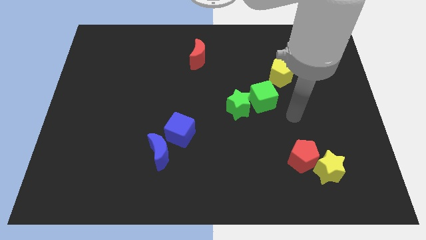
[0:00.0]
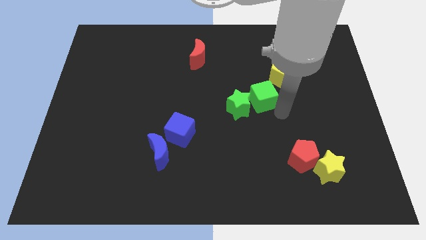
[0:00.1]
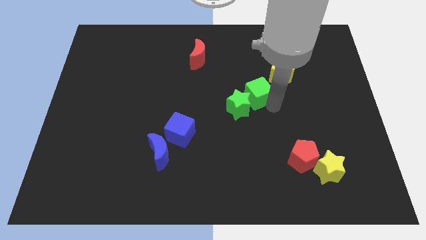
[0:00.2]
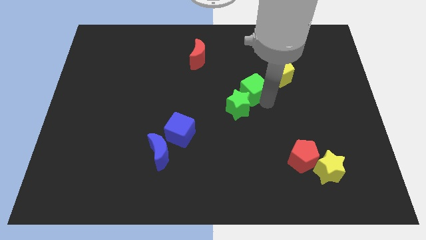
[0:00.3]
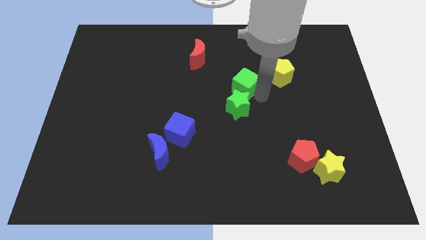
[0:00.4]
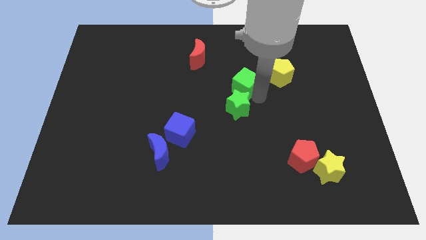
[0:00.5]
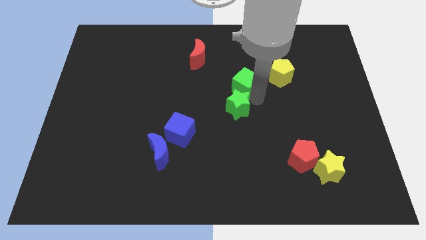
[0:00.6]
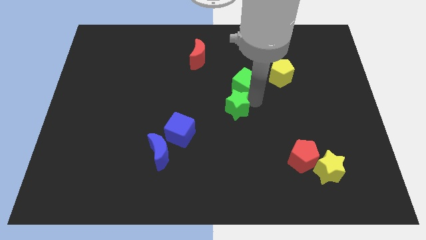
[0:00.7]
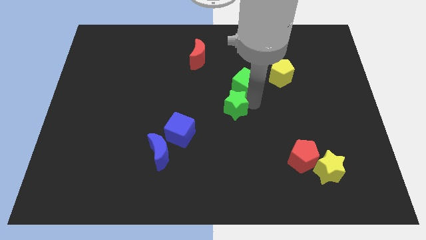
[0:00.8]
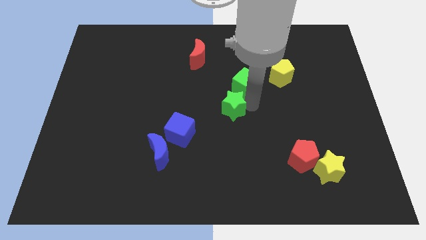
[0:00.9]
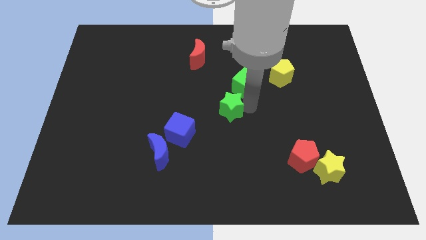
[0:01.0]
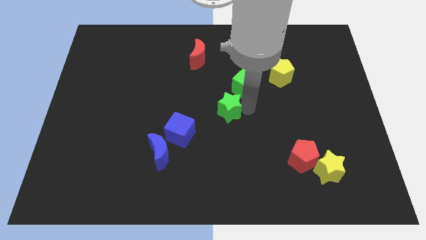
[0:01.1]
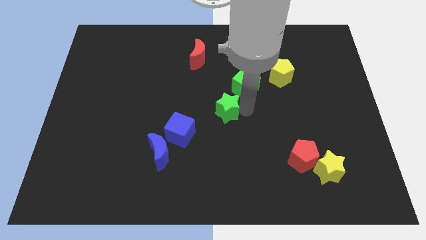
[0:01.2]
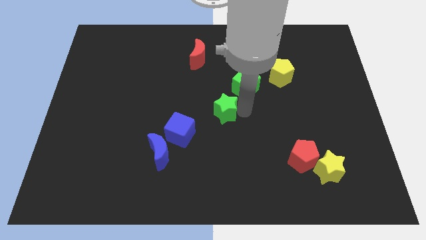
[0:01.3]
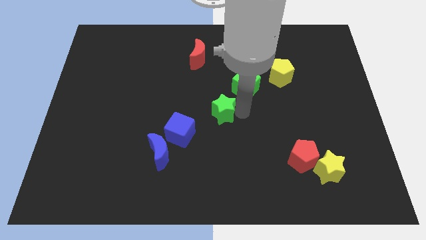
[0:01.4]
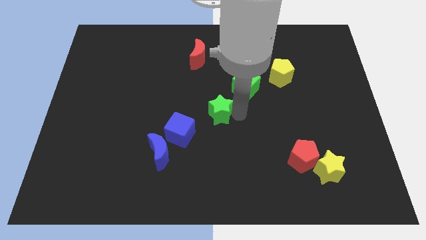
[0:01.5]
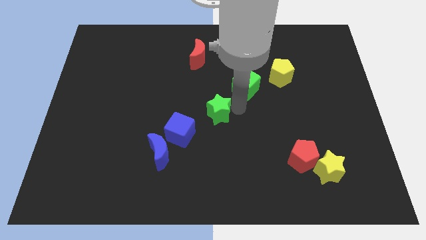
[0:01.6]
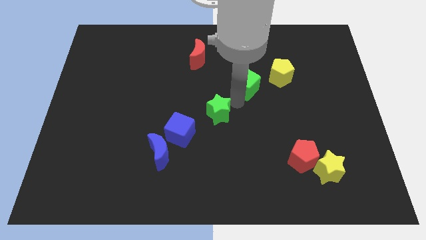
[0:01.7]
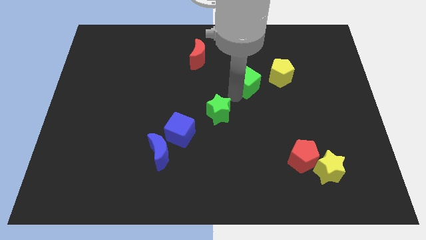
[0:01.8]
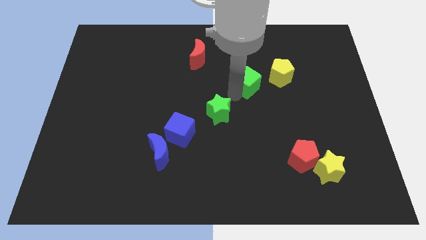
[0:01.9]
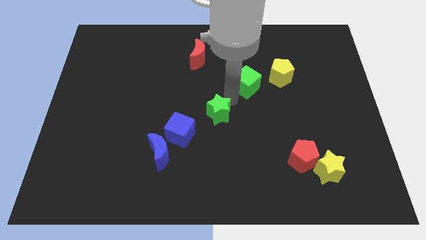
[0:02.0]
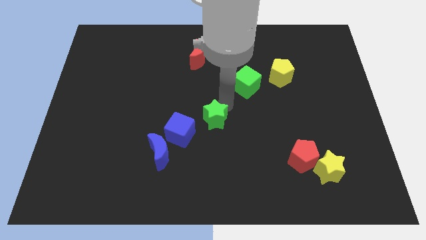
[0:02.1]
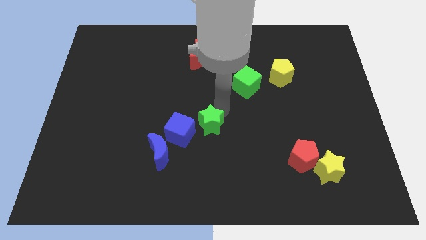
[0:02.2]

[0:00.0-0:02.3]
slide the green star diagonally downwards and to the left a little

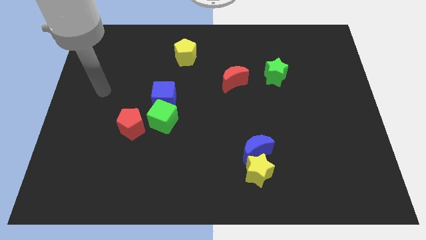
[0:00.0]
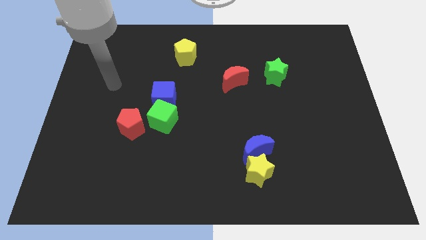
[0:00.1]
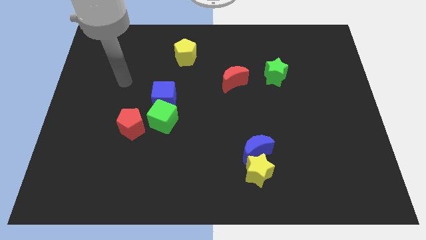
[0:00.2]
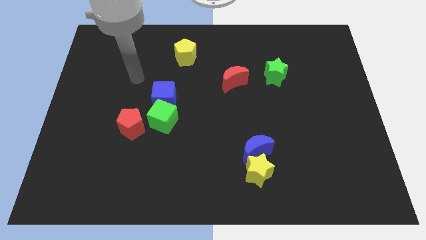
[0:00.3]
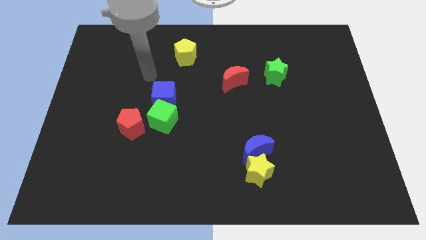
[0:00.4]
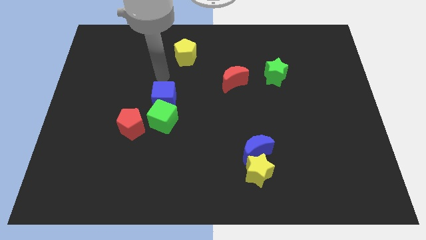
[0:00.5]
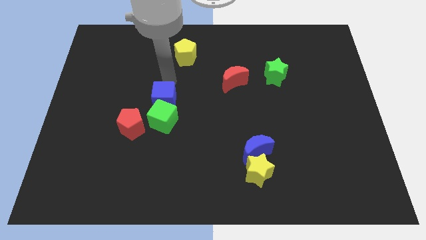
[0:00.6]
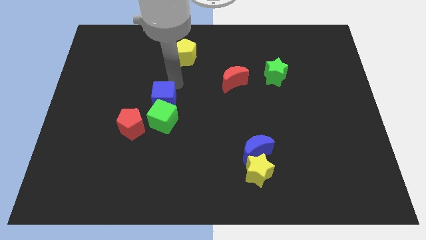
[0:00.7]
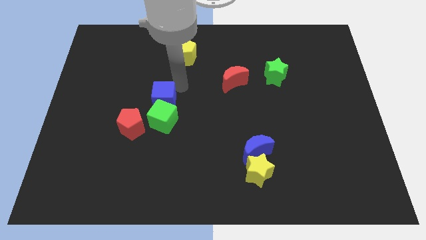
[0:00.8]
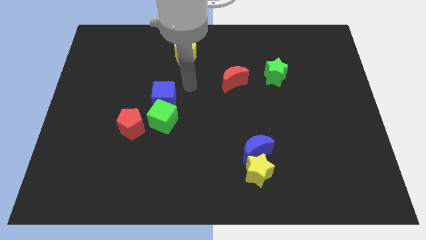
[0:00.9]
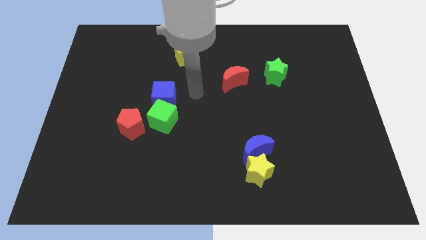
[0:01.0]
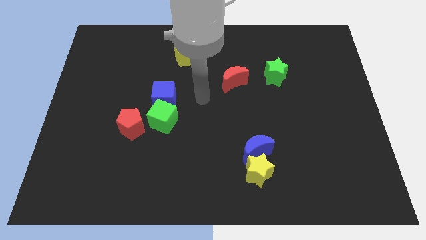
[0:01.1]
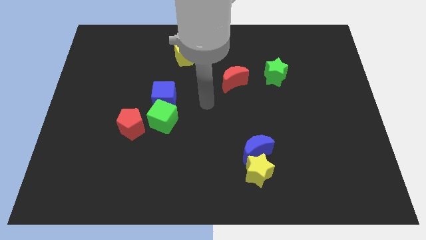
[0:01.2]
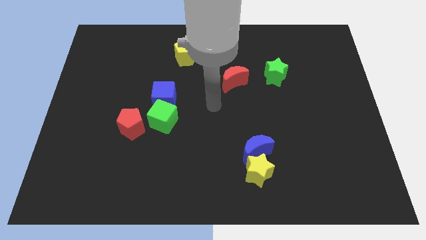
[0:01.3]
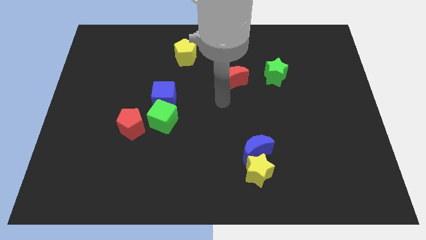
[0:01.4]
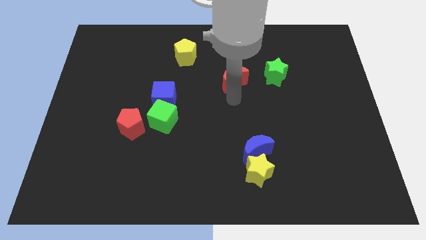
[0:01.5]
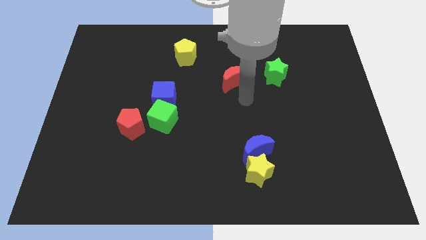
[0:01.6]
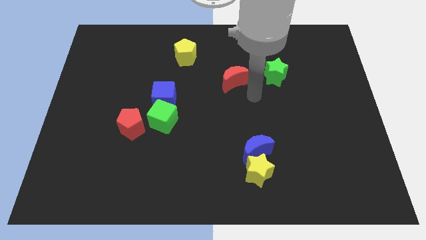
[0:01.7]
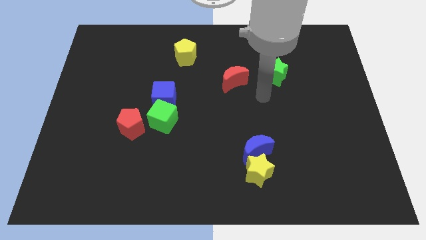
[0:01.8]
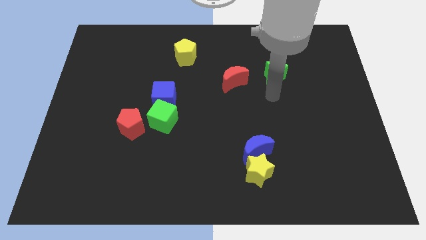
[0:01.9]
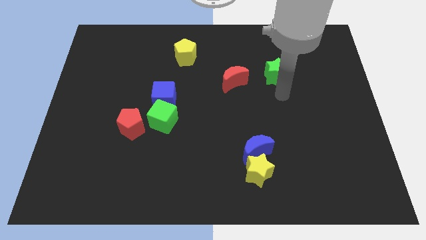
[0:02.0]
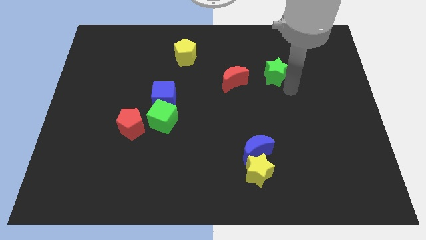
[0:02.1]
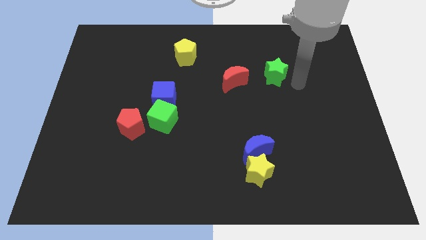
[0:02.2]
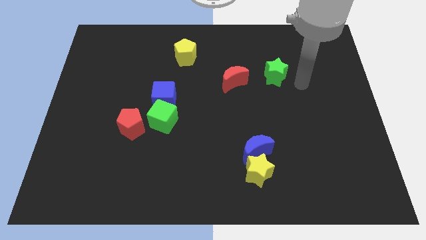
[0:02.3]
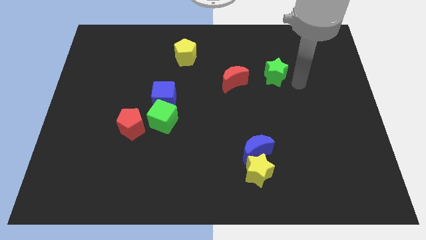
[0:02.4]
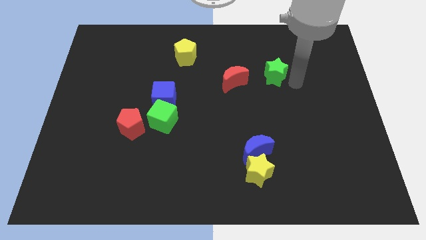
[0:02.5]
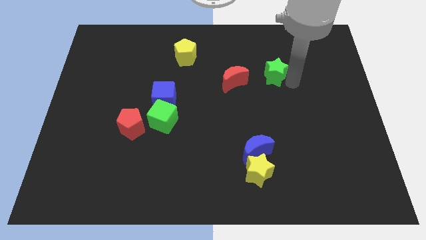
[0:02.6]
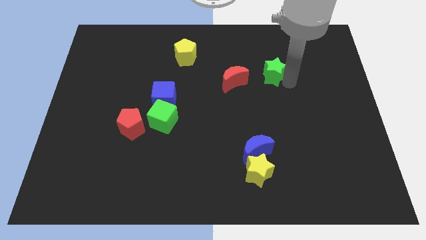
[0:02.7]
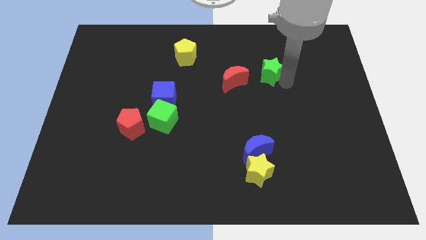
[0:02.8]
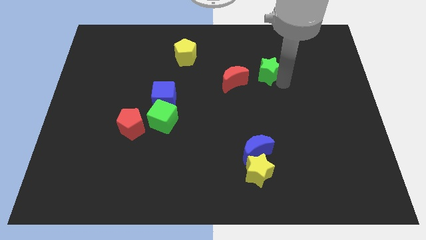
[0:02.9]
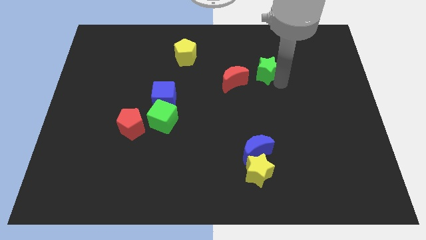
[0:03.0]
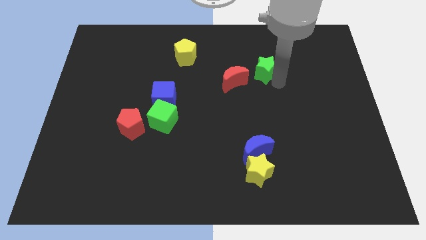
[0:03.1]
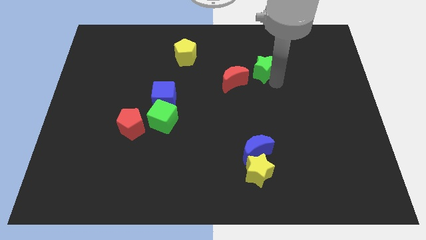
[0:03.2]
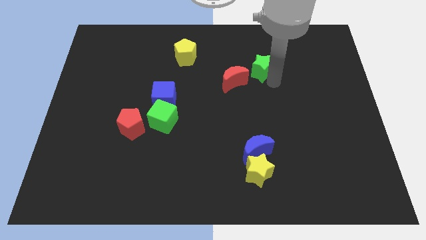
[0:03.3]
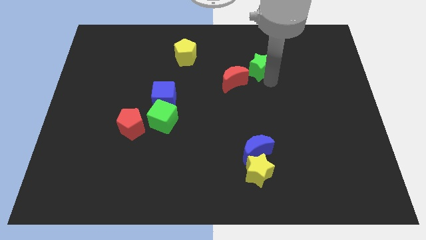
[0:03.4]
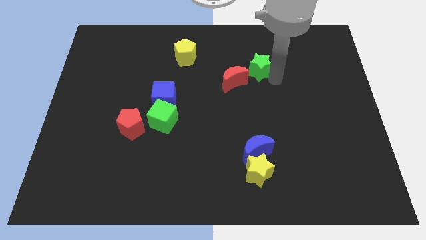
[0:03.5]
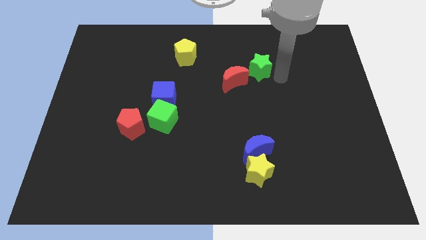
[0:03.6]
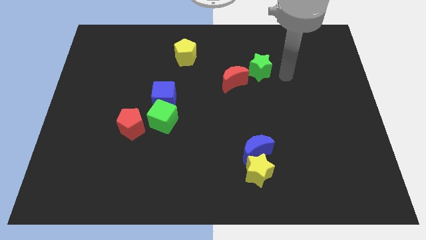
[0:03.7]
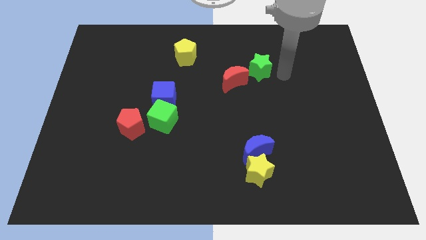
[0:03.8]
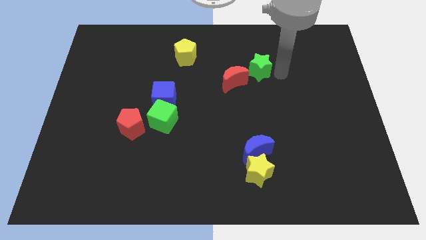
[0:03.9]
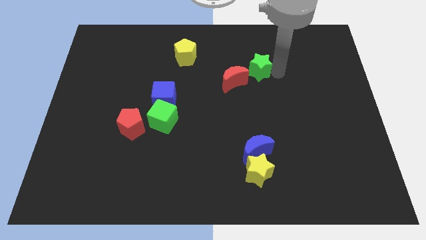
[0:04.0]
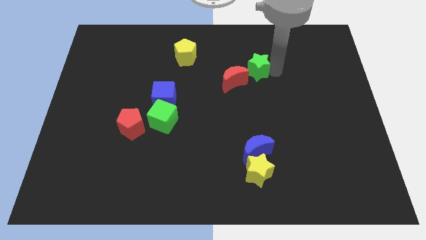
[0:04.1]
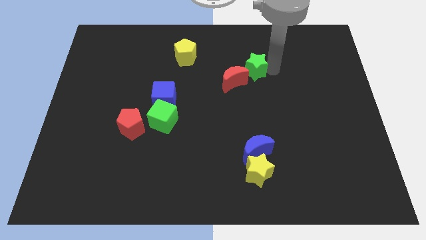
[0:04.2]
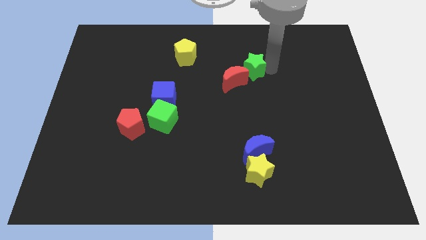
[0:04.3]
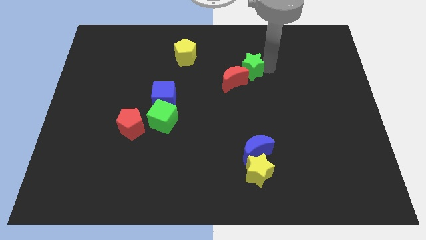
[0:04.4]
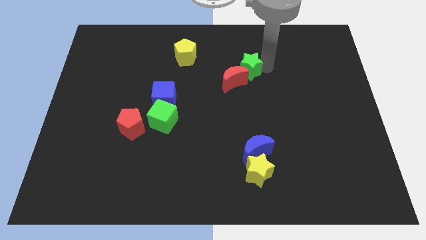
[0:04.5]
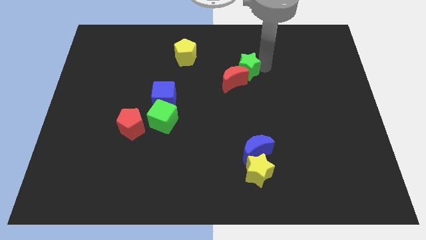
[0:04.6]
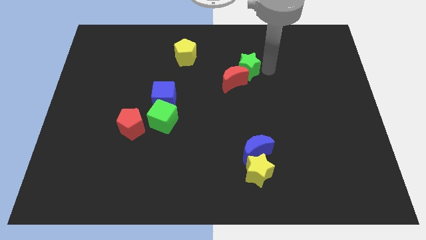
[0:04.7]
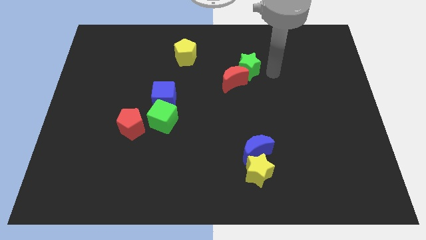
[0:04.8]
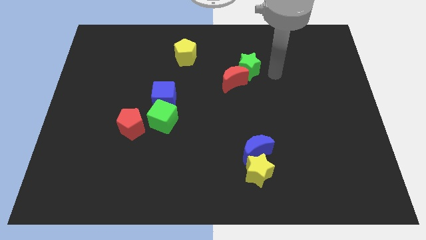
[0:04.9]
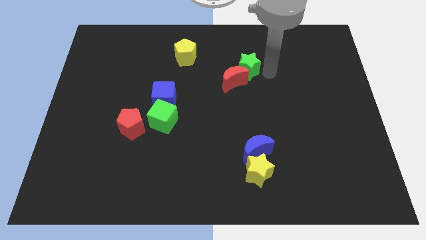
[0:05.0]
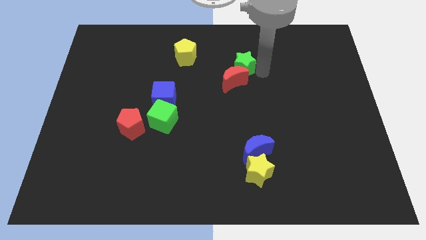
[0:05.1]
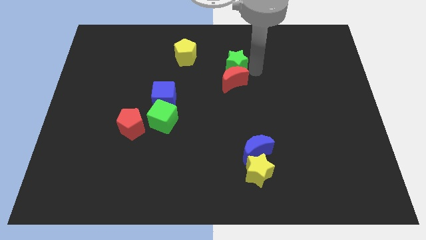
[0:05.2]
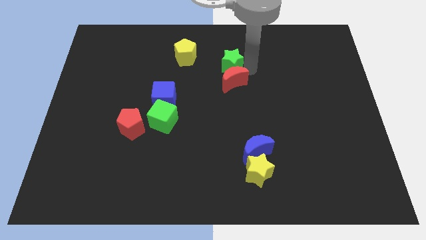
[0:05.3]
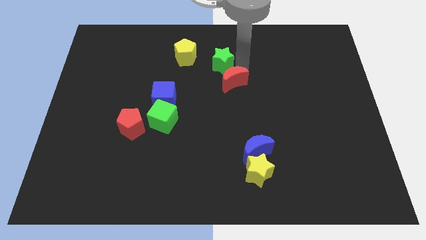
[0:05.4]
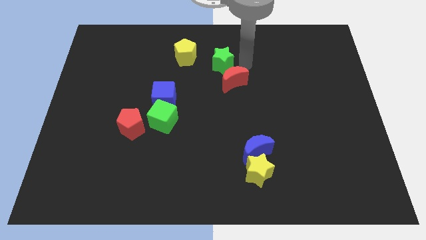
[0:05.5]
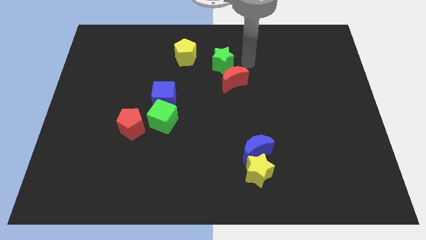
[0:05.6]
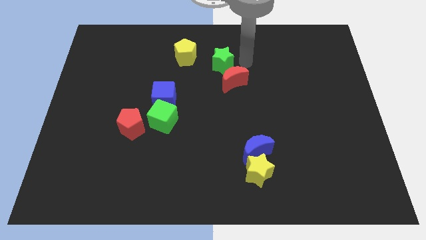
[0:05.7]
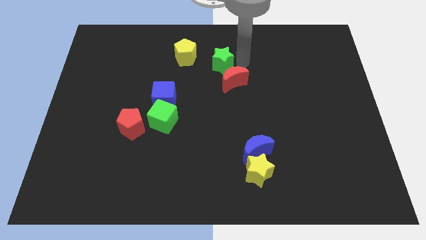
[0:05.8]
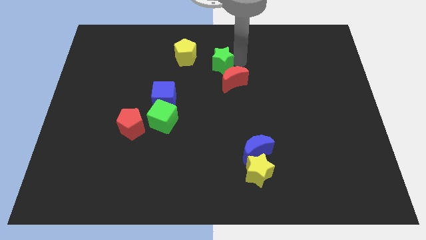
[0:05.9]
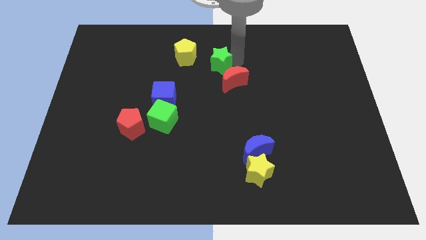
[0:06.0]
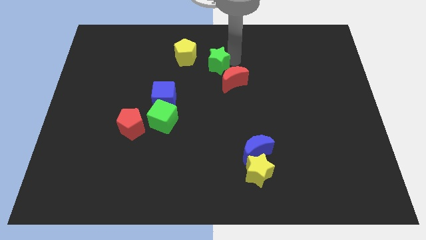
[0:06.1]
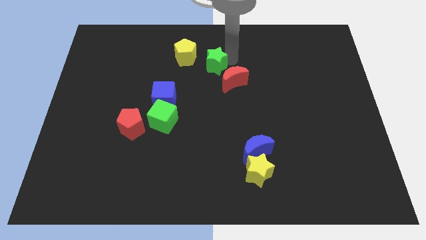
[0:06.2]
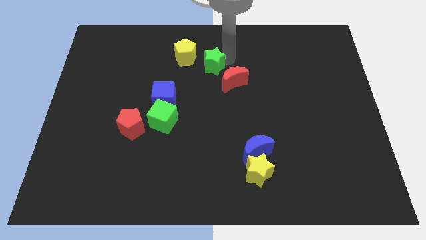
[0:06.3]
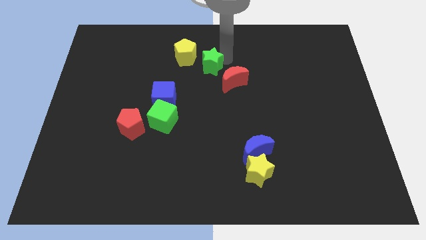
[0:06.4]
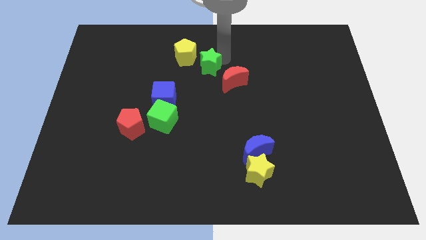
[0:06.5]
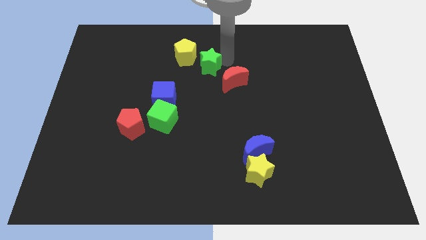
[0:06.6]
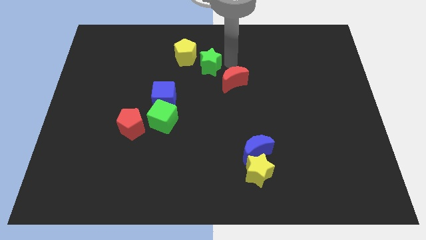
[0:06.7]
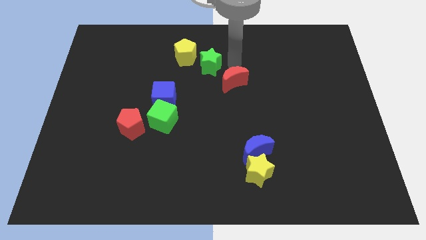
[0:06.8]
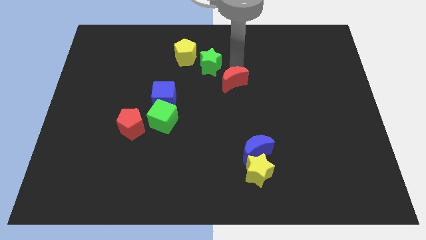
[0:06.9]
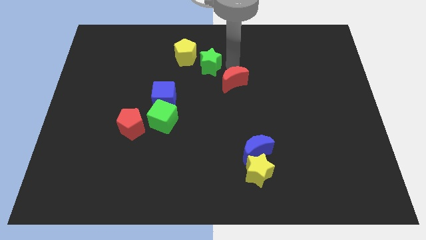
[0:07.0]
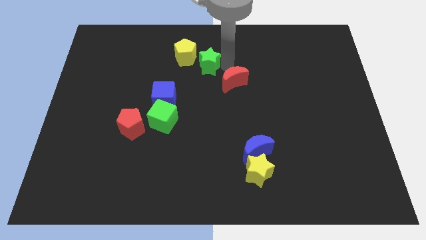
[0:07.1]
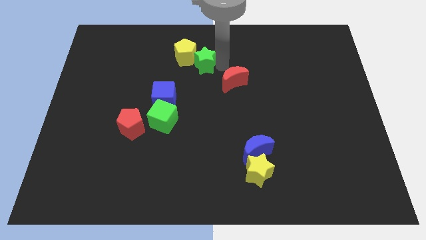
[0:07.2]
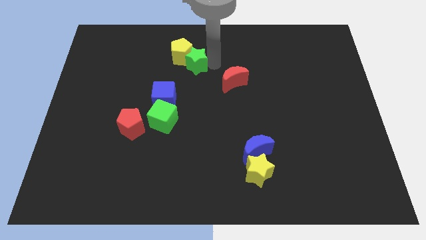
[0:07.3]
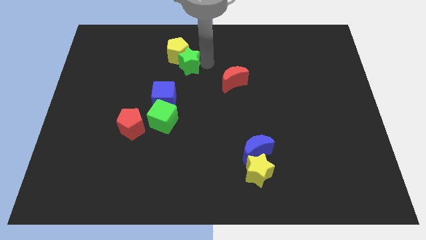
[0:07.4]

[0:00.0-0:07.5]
slide the green star to the left
